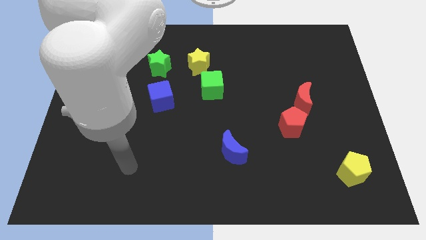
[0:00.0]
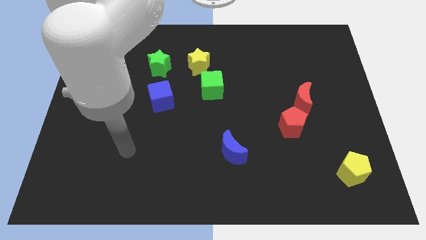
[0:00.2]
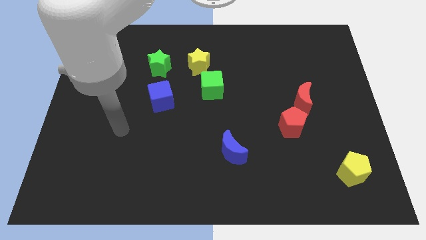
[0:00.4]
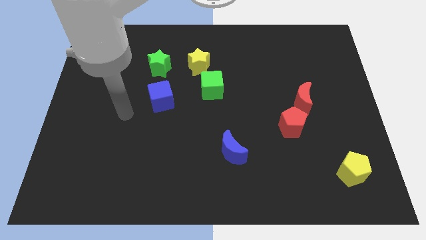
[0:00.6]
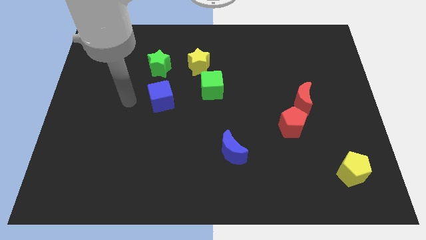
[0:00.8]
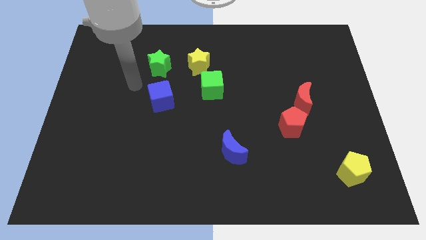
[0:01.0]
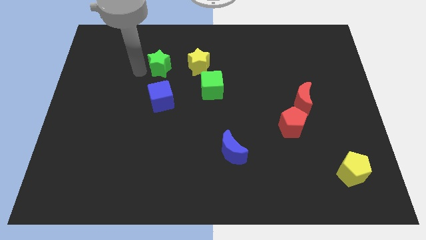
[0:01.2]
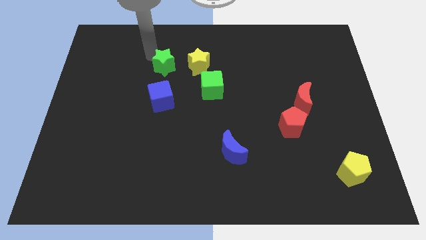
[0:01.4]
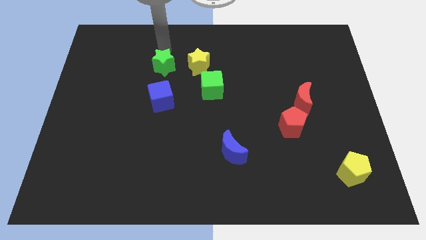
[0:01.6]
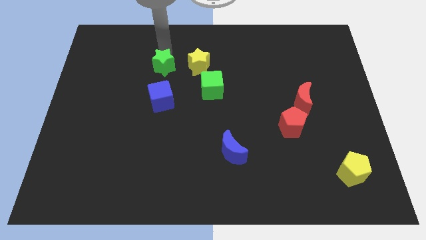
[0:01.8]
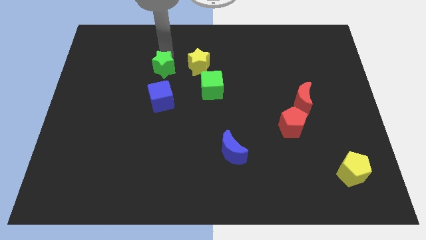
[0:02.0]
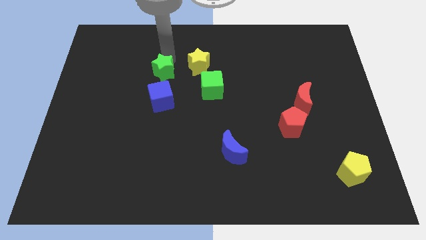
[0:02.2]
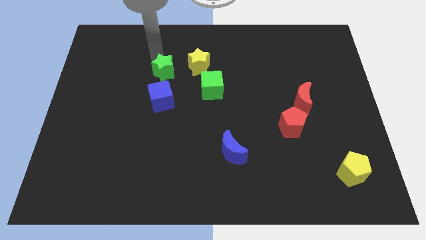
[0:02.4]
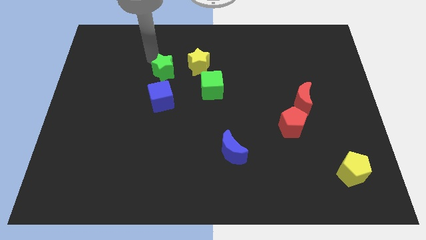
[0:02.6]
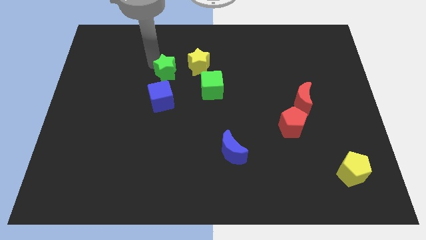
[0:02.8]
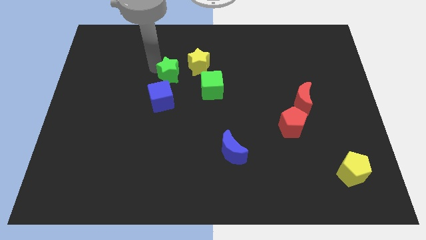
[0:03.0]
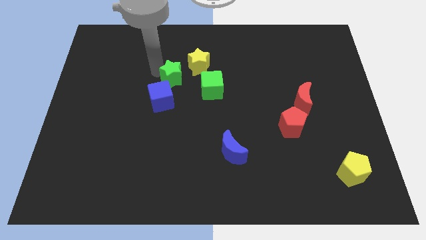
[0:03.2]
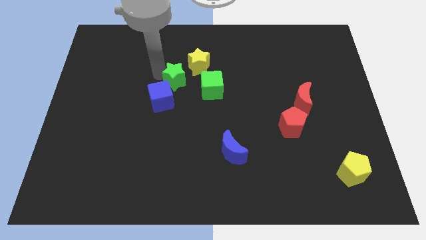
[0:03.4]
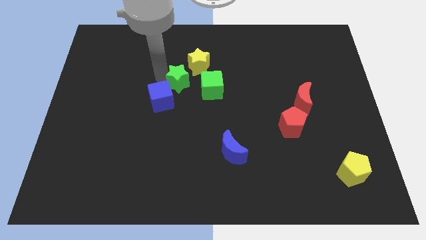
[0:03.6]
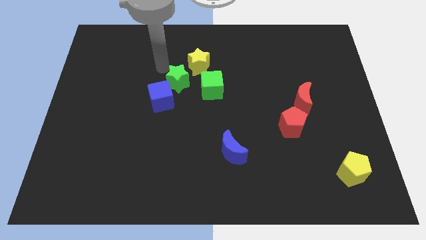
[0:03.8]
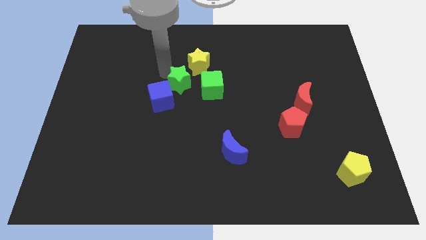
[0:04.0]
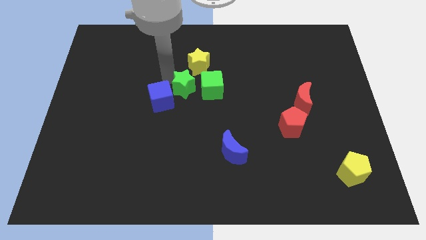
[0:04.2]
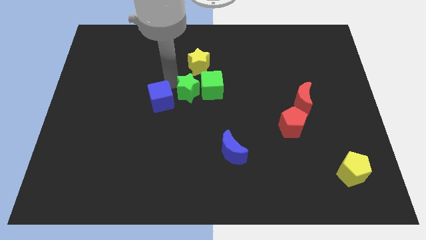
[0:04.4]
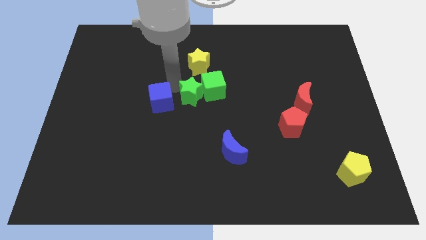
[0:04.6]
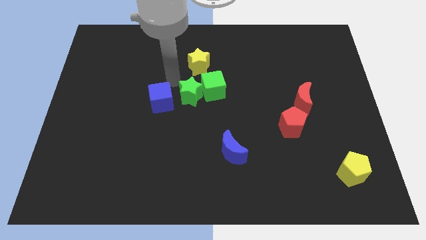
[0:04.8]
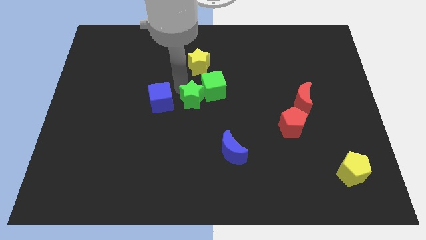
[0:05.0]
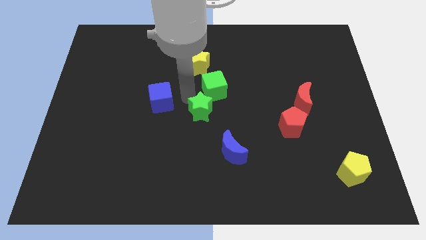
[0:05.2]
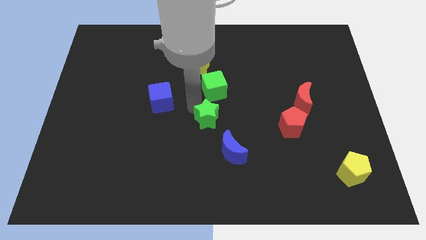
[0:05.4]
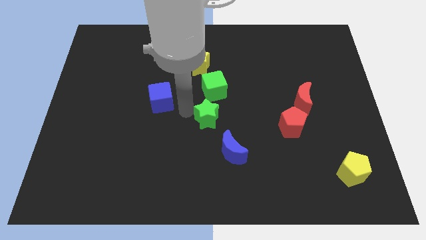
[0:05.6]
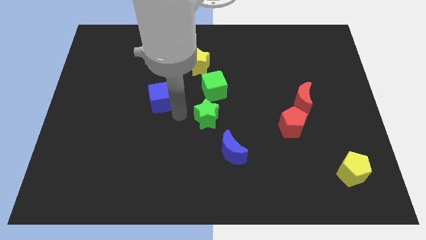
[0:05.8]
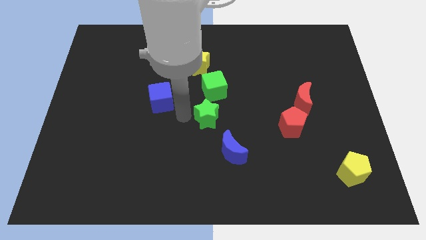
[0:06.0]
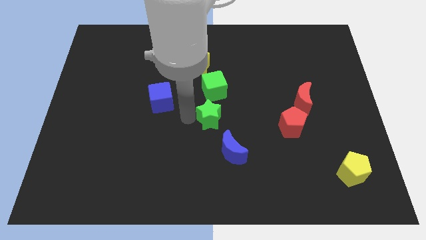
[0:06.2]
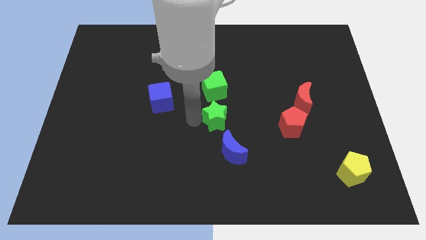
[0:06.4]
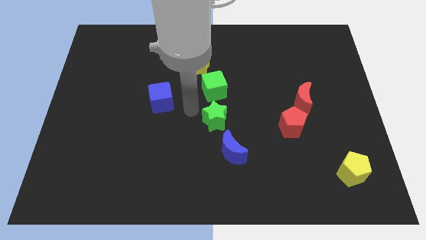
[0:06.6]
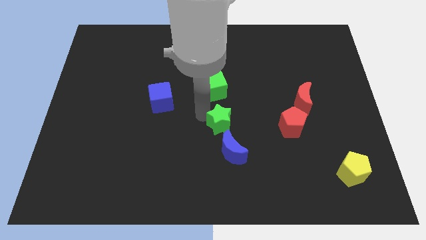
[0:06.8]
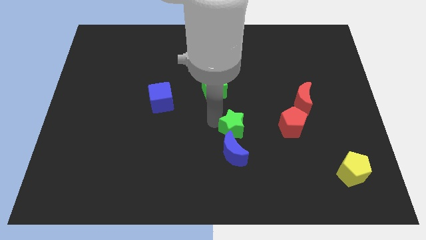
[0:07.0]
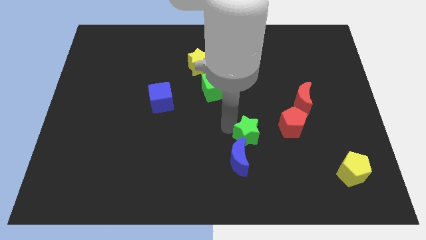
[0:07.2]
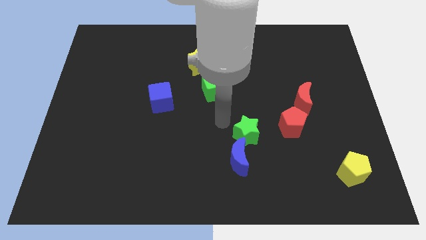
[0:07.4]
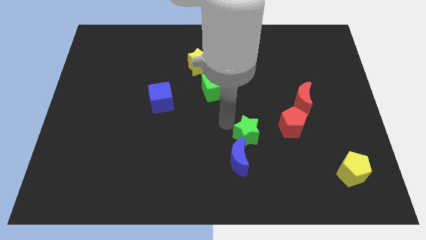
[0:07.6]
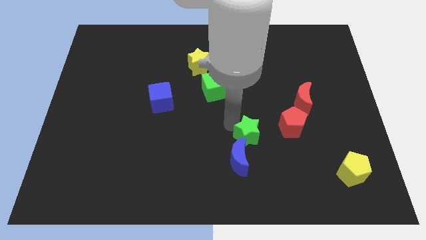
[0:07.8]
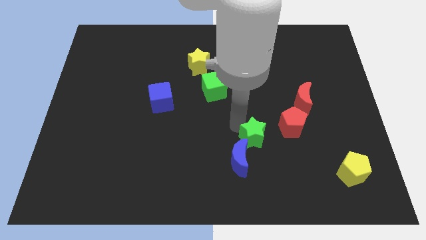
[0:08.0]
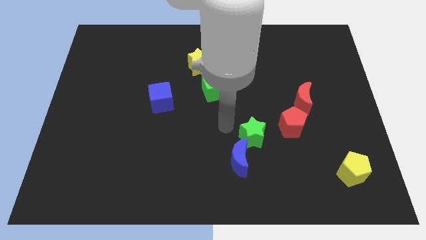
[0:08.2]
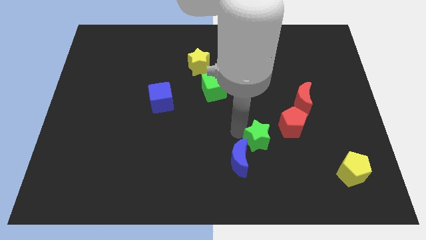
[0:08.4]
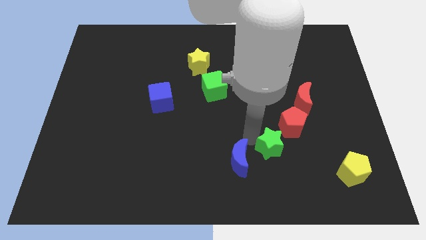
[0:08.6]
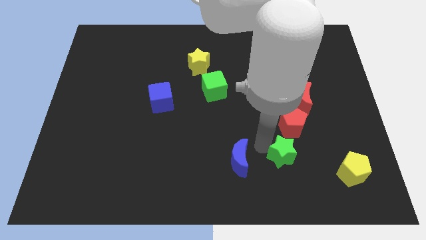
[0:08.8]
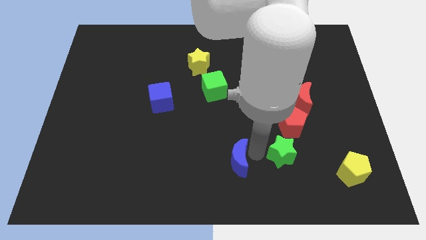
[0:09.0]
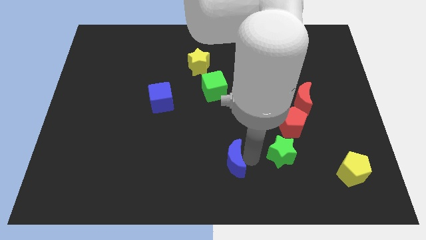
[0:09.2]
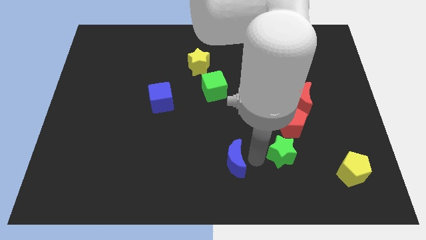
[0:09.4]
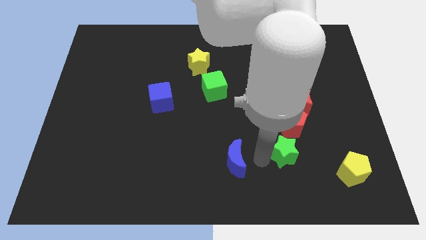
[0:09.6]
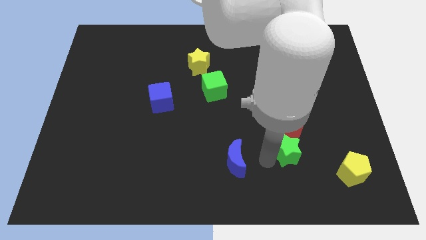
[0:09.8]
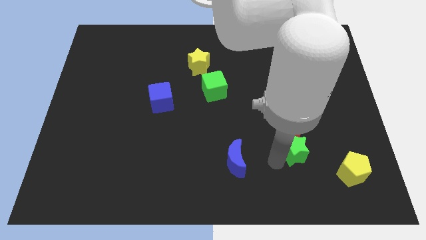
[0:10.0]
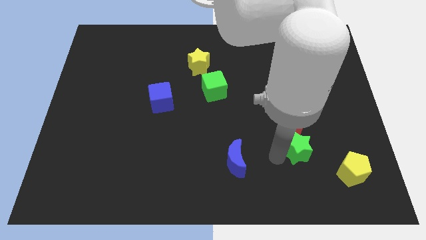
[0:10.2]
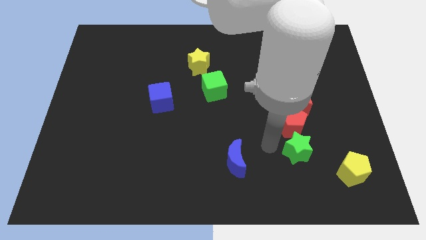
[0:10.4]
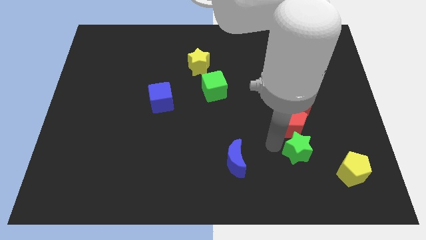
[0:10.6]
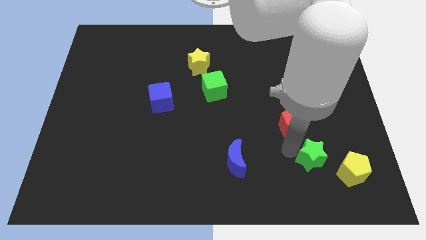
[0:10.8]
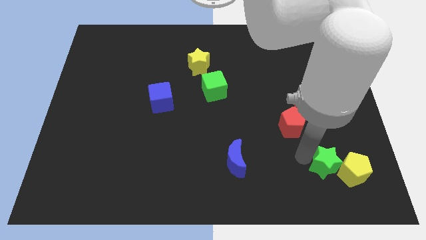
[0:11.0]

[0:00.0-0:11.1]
put the green star close to the yellow pentagon

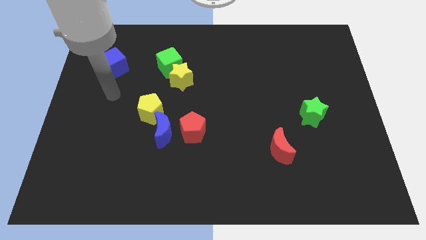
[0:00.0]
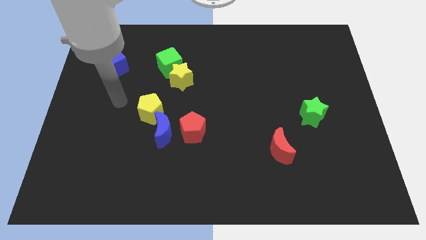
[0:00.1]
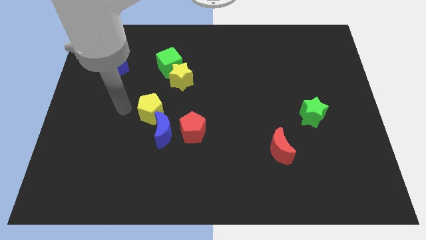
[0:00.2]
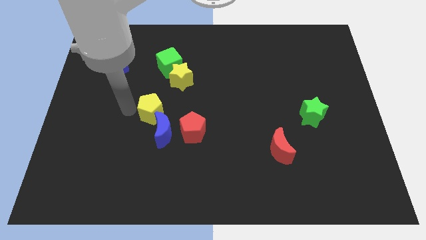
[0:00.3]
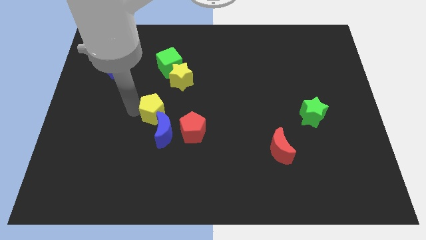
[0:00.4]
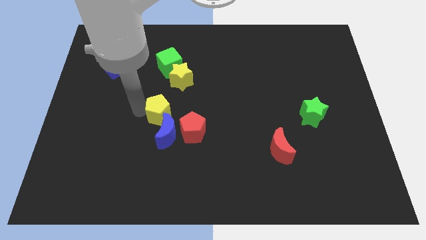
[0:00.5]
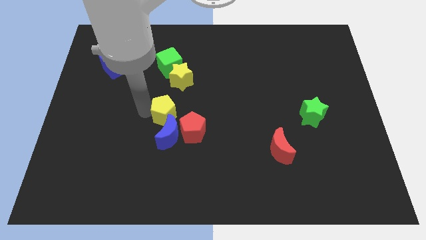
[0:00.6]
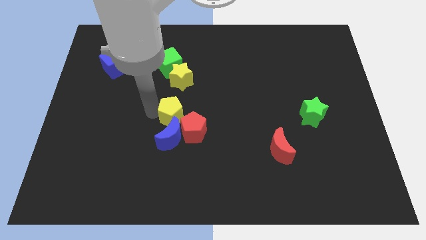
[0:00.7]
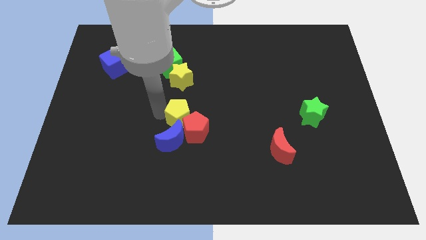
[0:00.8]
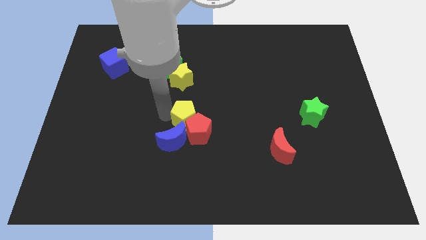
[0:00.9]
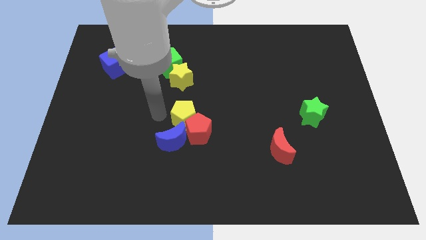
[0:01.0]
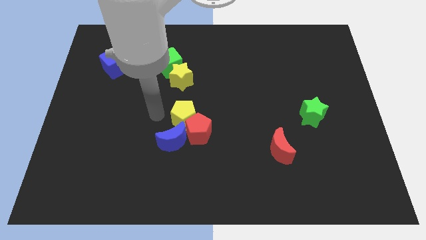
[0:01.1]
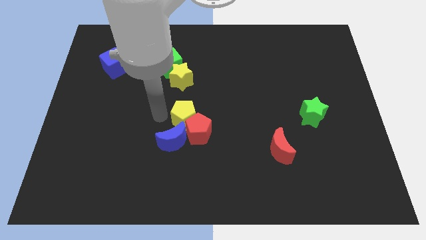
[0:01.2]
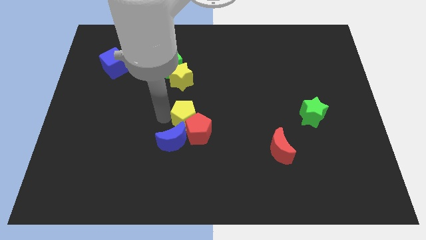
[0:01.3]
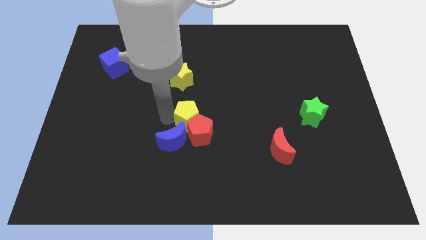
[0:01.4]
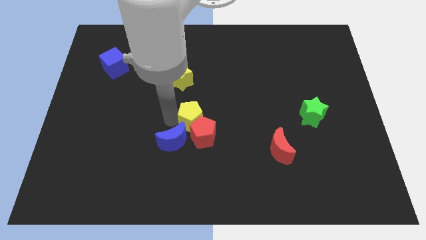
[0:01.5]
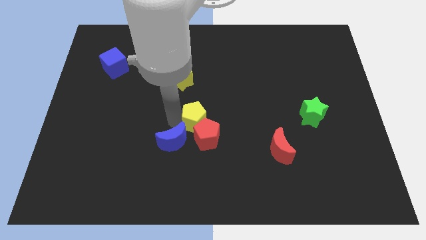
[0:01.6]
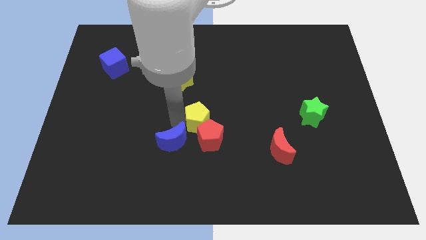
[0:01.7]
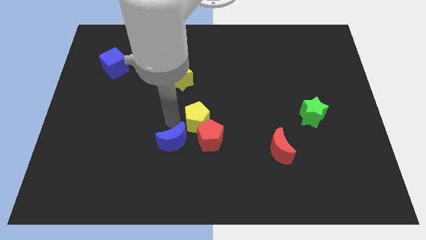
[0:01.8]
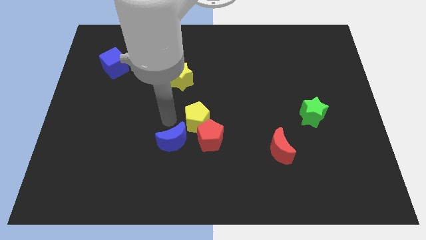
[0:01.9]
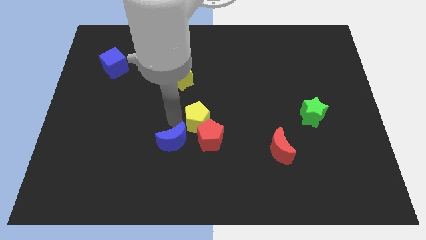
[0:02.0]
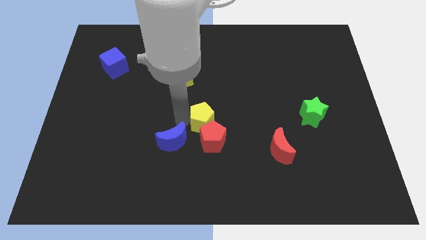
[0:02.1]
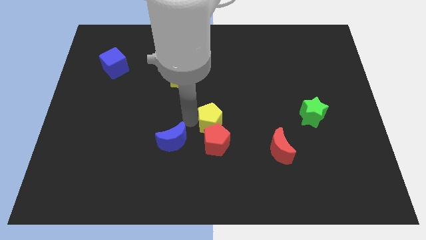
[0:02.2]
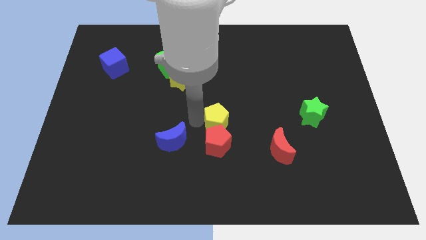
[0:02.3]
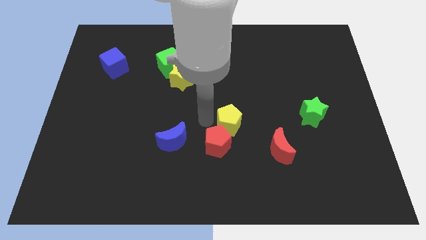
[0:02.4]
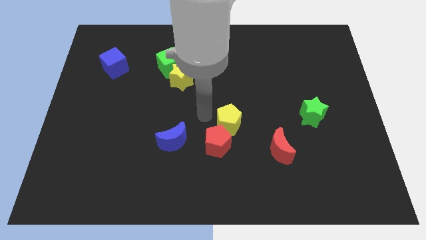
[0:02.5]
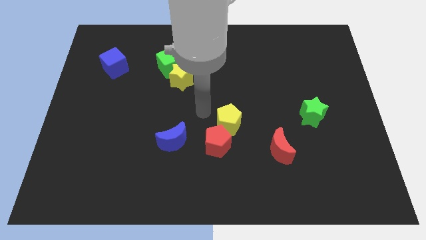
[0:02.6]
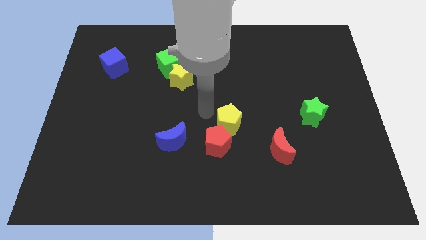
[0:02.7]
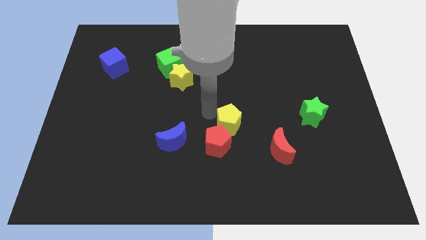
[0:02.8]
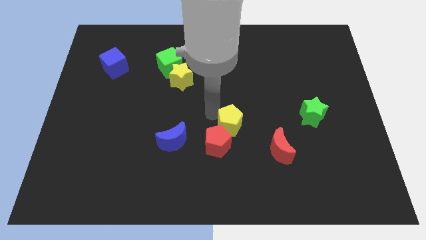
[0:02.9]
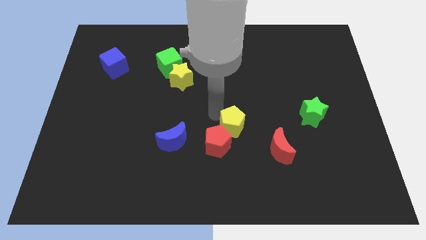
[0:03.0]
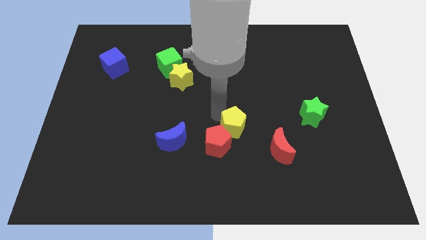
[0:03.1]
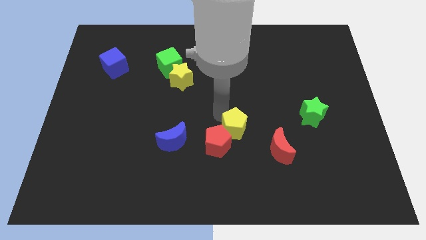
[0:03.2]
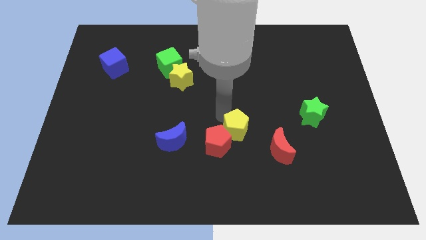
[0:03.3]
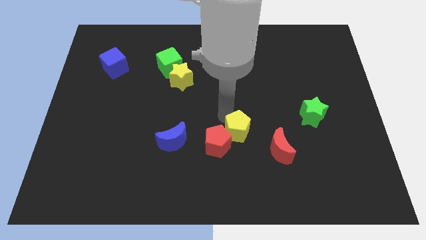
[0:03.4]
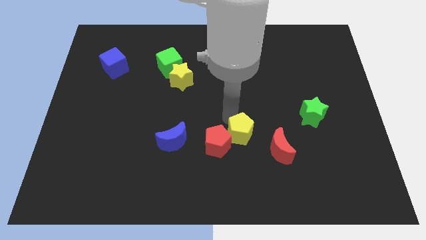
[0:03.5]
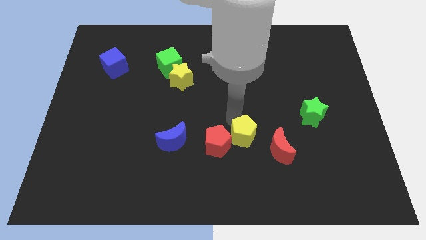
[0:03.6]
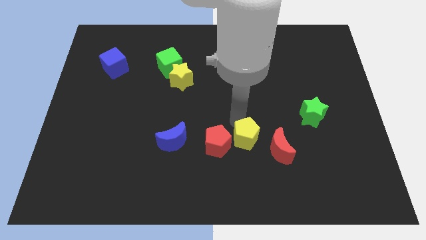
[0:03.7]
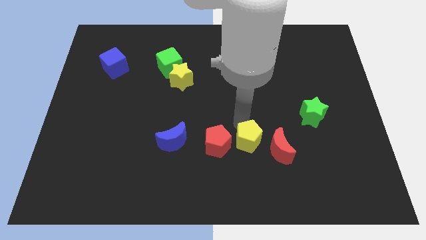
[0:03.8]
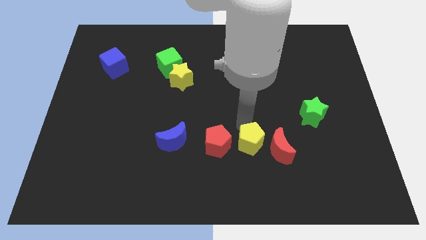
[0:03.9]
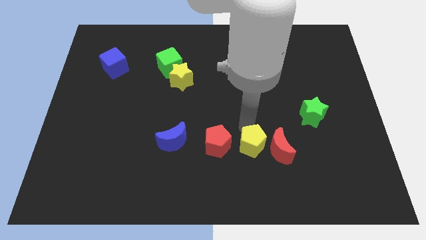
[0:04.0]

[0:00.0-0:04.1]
push the yellow pentagon towards the red moon
